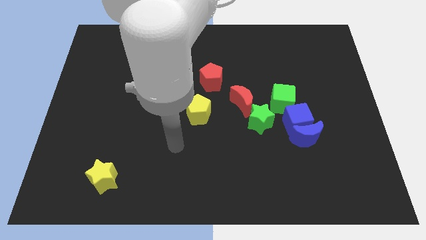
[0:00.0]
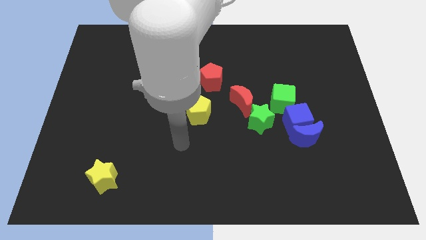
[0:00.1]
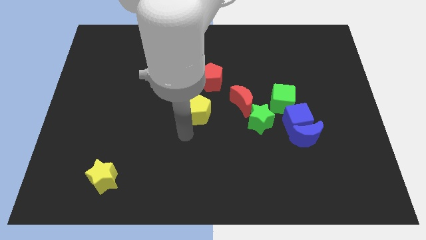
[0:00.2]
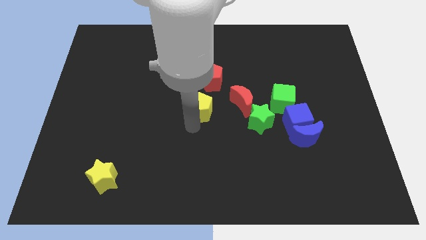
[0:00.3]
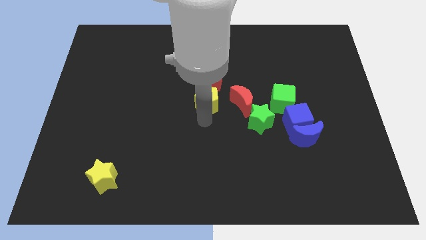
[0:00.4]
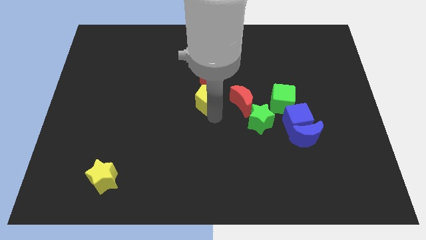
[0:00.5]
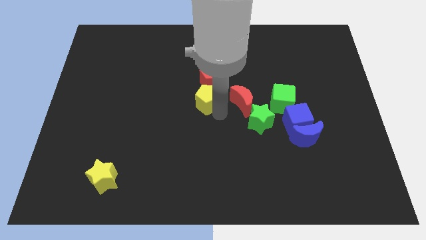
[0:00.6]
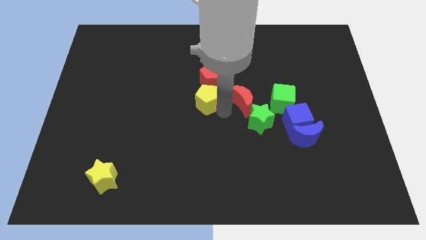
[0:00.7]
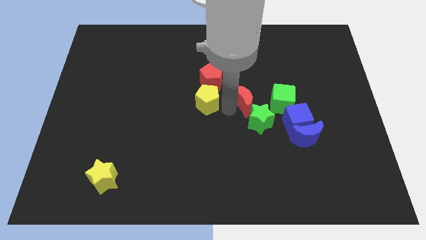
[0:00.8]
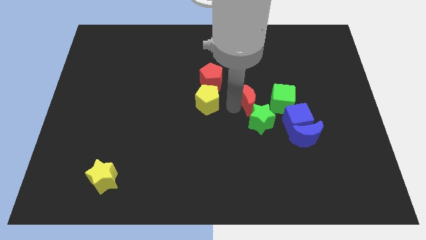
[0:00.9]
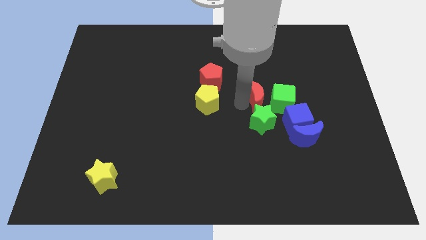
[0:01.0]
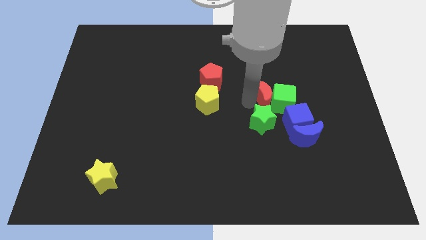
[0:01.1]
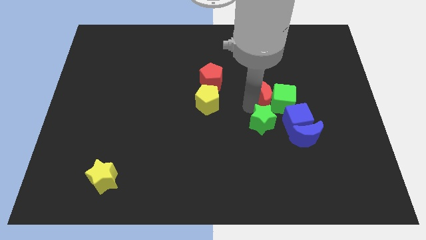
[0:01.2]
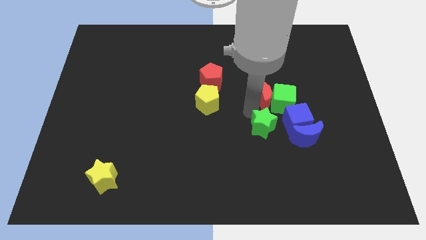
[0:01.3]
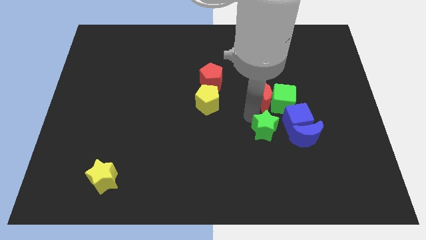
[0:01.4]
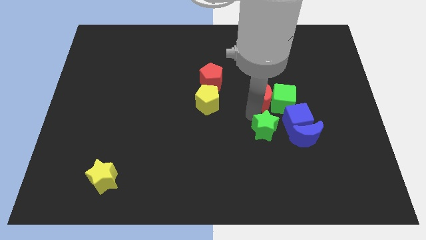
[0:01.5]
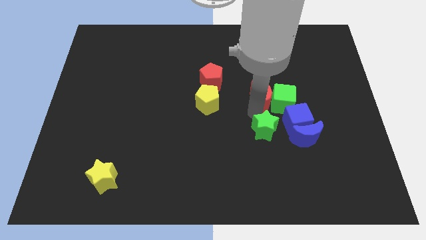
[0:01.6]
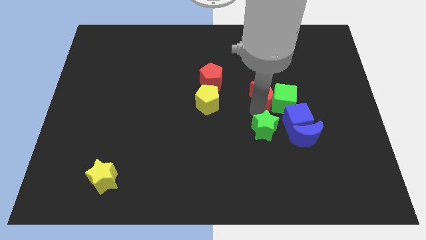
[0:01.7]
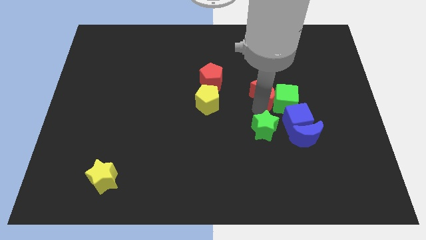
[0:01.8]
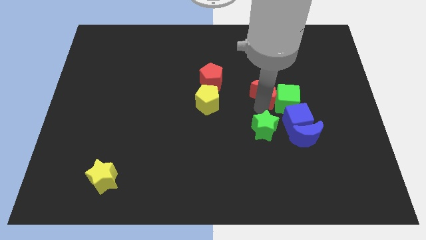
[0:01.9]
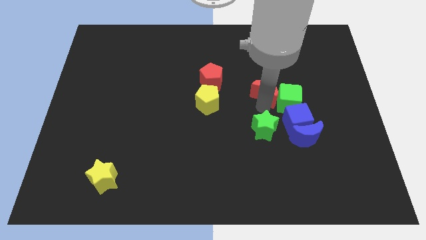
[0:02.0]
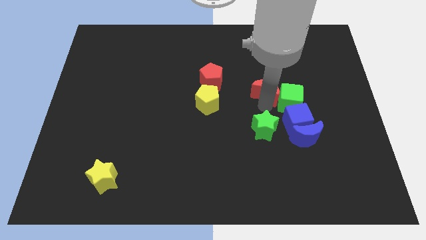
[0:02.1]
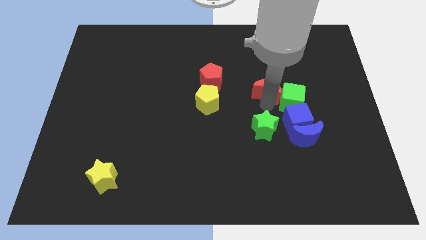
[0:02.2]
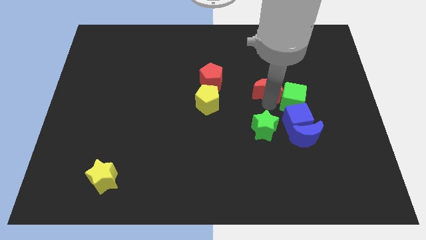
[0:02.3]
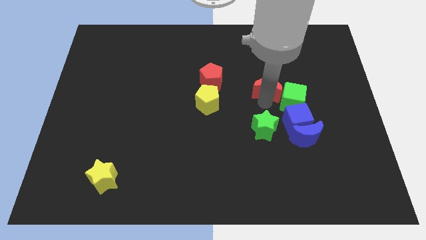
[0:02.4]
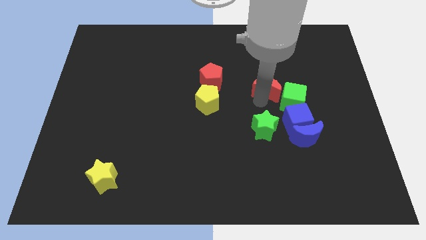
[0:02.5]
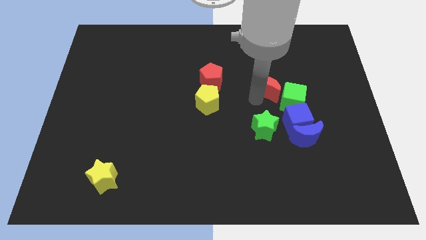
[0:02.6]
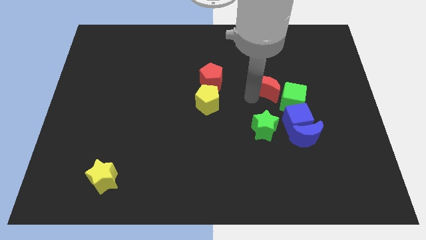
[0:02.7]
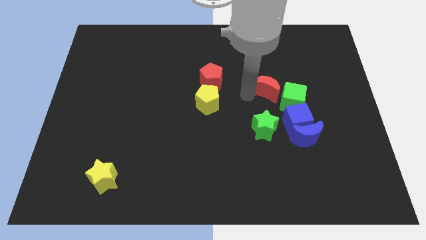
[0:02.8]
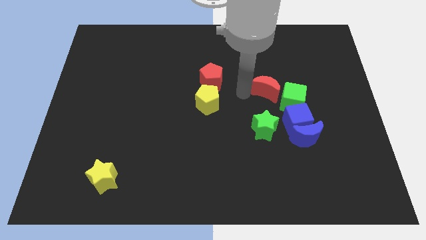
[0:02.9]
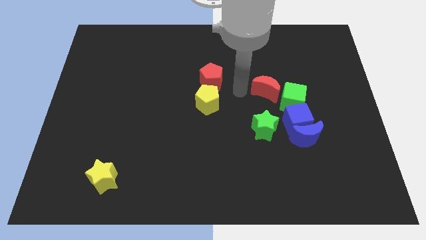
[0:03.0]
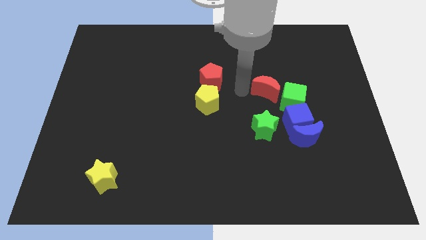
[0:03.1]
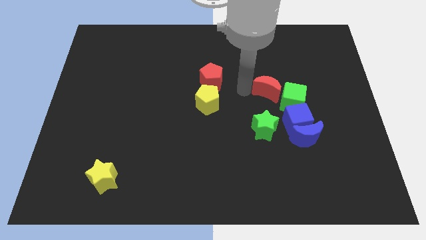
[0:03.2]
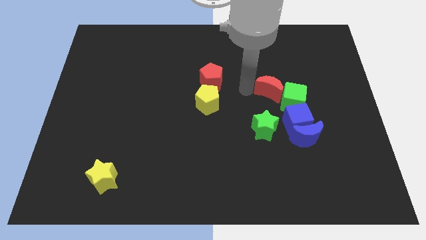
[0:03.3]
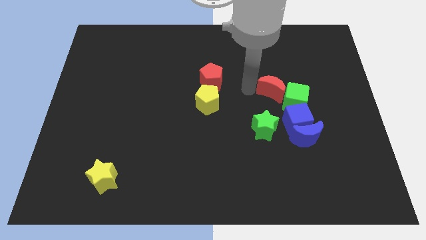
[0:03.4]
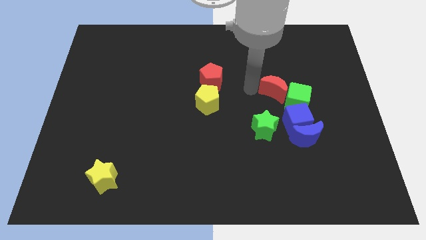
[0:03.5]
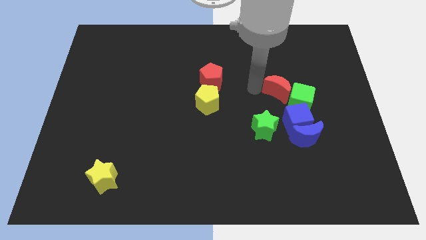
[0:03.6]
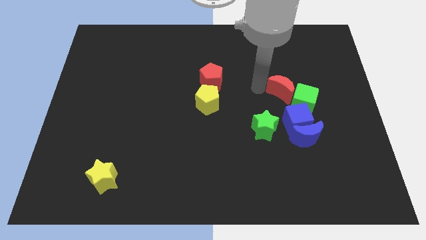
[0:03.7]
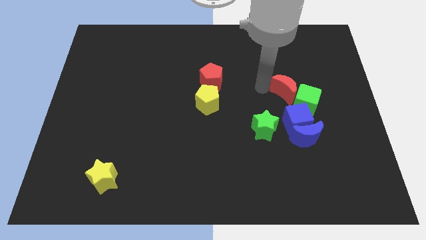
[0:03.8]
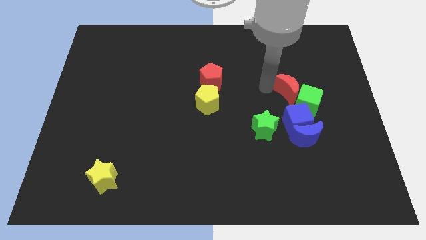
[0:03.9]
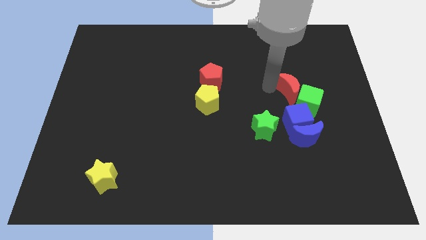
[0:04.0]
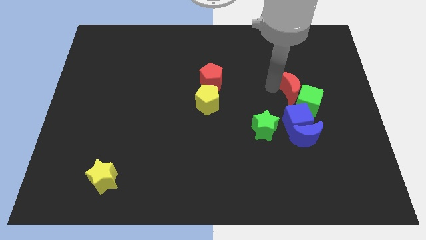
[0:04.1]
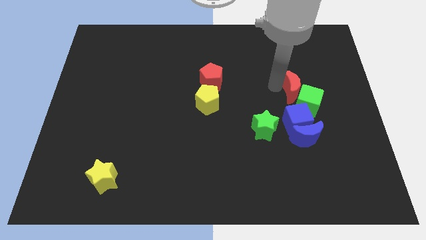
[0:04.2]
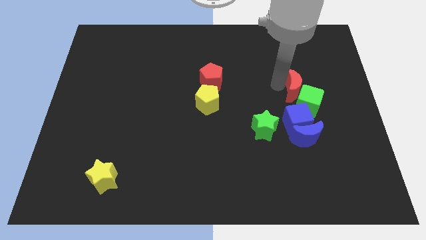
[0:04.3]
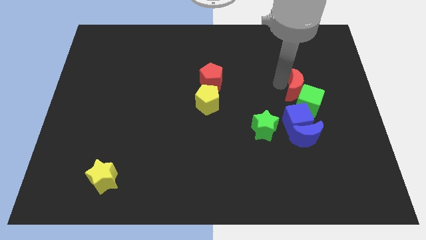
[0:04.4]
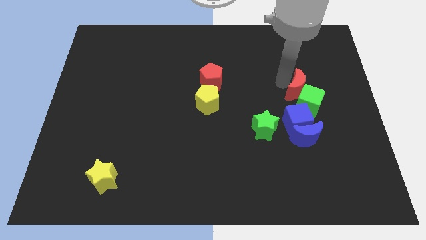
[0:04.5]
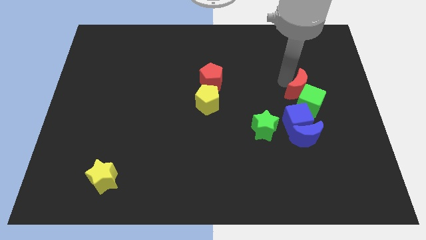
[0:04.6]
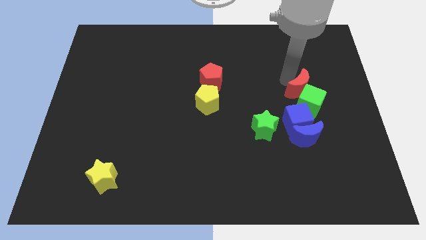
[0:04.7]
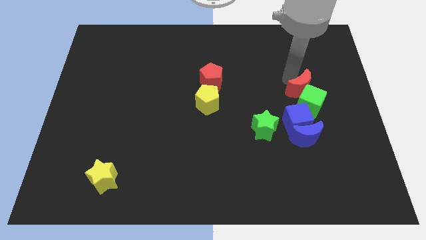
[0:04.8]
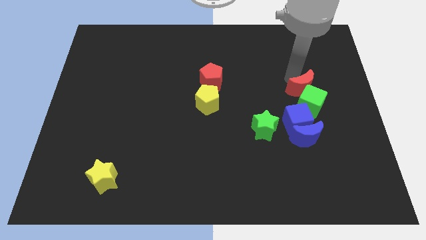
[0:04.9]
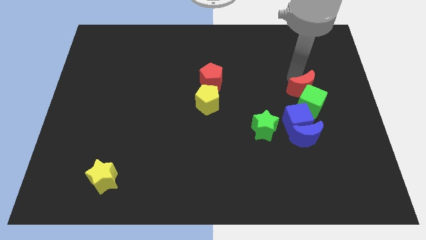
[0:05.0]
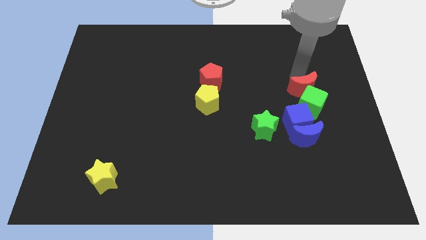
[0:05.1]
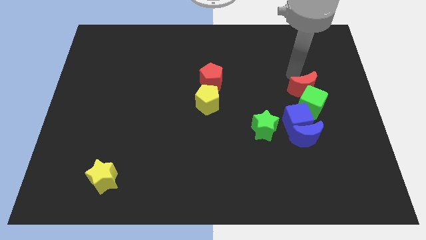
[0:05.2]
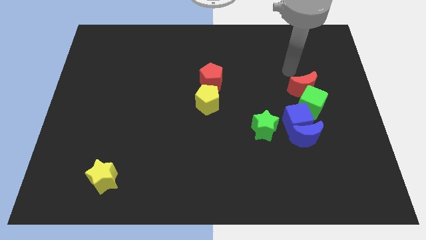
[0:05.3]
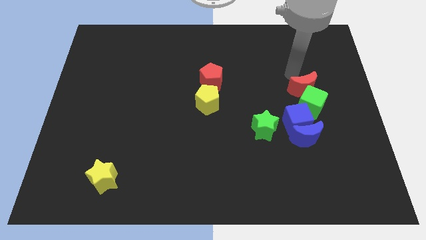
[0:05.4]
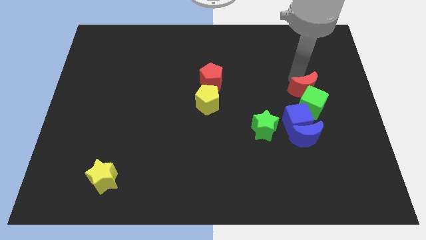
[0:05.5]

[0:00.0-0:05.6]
move the red moon diagonally up and to the right of the blue cube

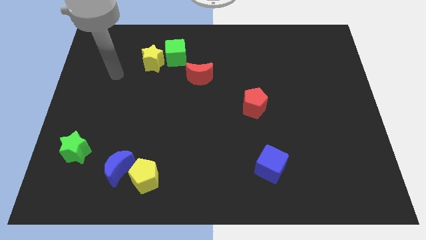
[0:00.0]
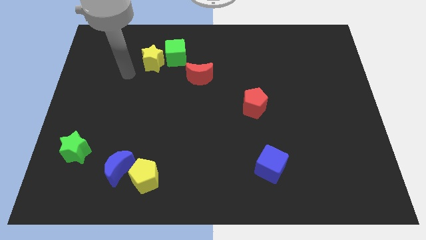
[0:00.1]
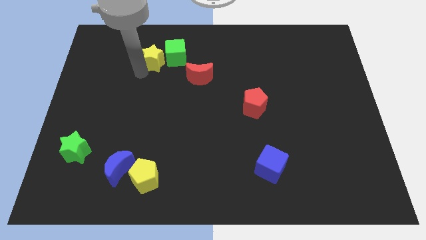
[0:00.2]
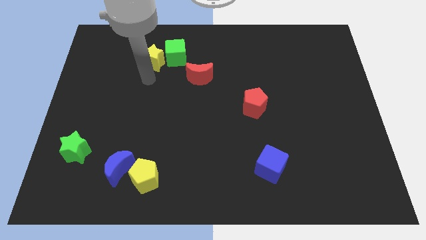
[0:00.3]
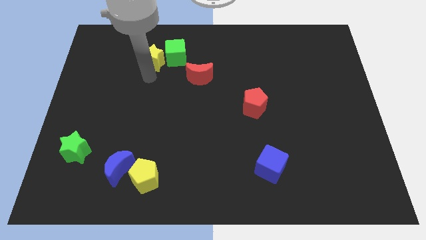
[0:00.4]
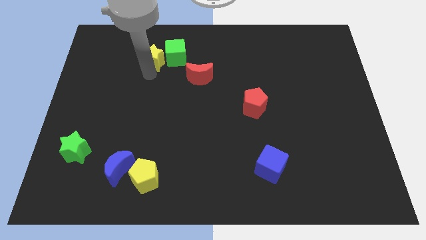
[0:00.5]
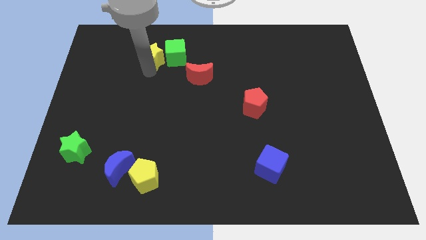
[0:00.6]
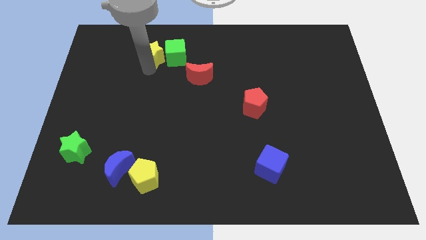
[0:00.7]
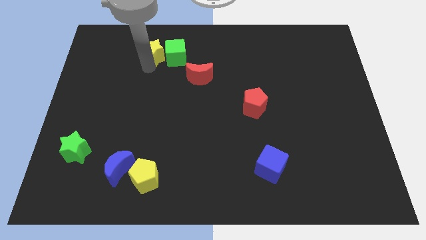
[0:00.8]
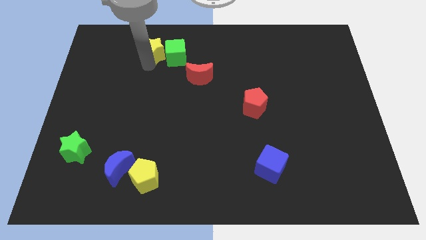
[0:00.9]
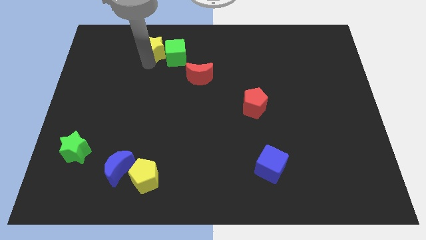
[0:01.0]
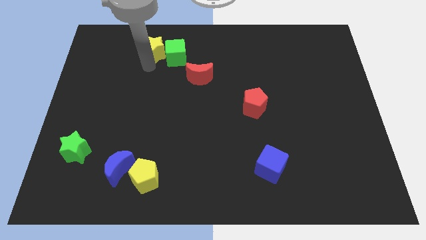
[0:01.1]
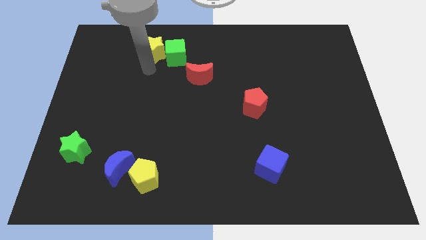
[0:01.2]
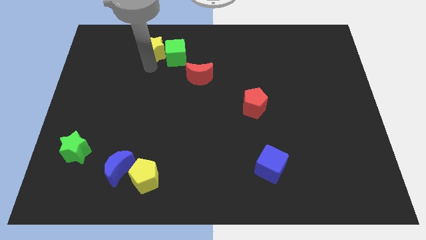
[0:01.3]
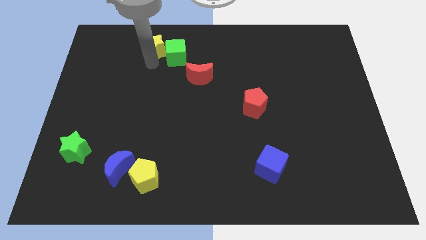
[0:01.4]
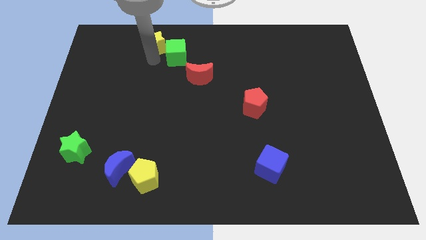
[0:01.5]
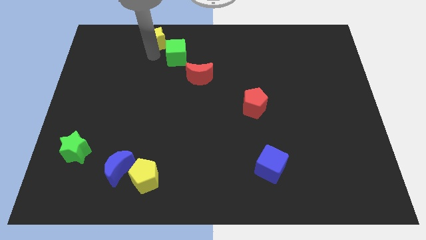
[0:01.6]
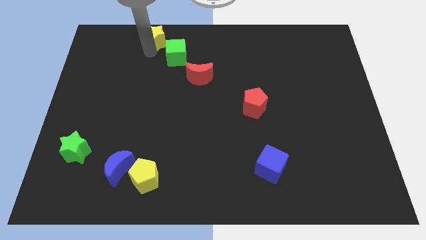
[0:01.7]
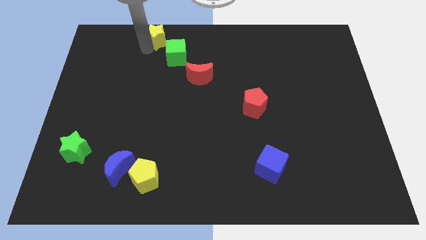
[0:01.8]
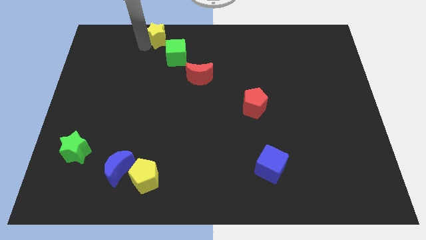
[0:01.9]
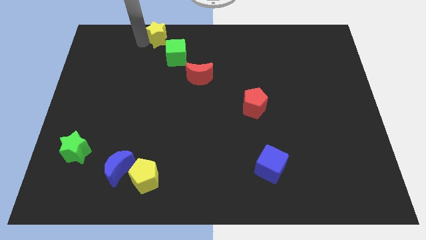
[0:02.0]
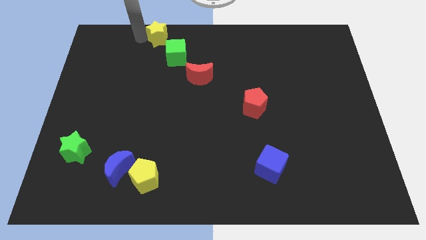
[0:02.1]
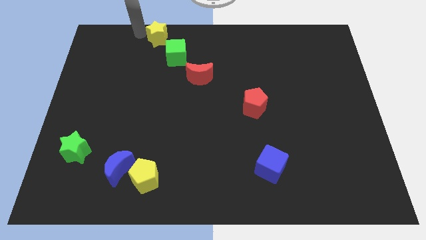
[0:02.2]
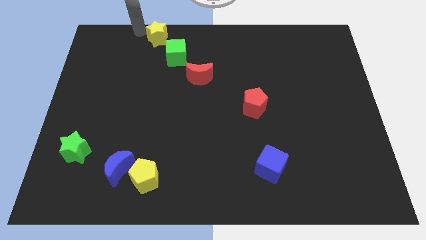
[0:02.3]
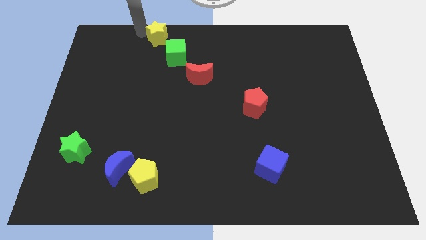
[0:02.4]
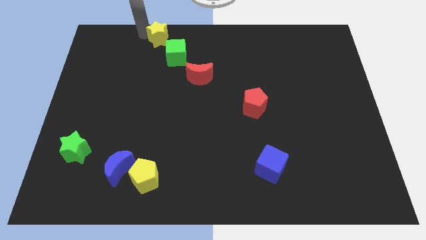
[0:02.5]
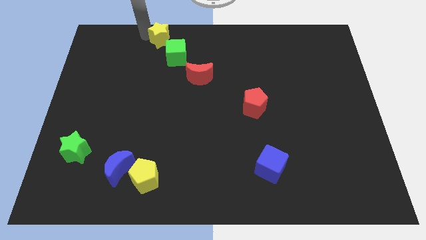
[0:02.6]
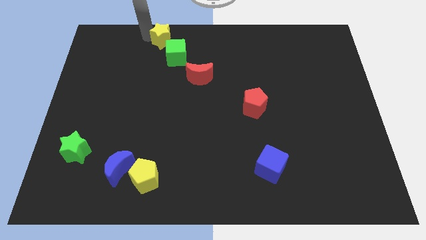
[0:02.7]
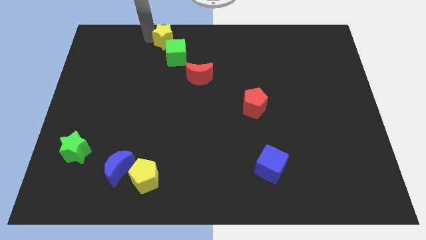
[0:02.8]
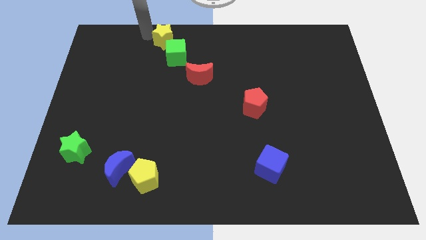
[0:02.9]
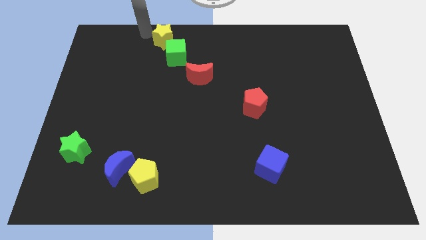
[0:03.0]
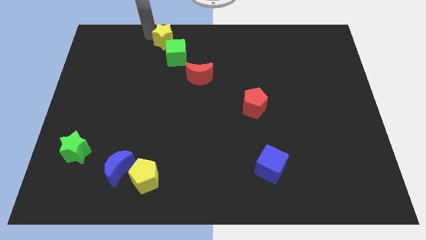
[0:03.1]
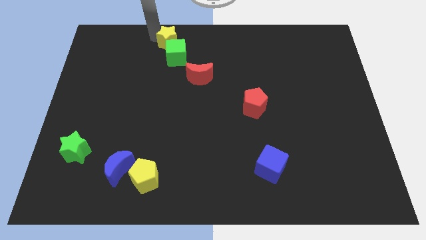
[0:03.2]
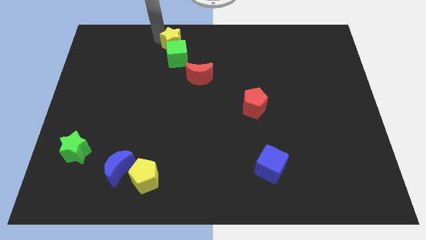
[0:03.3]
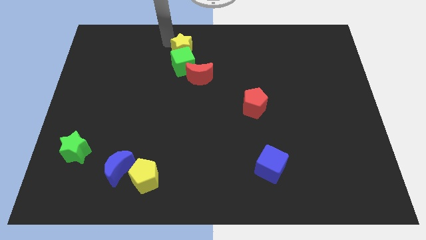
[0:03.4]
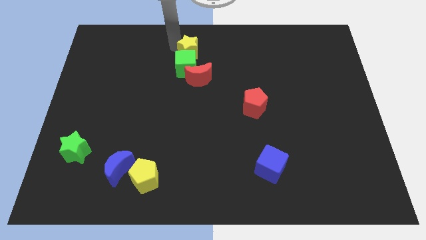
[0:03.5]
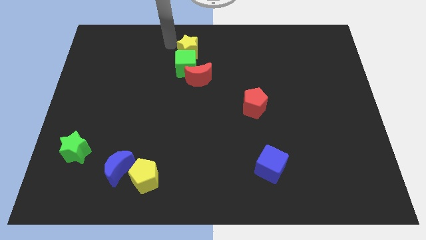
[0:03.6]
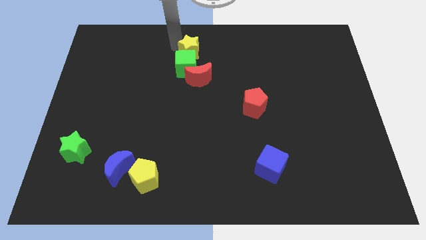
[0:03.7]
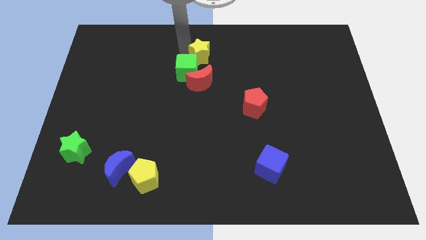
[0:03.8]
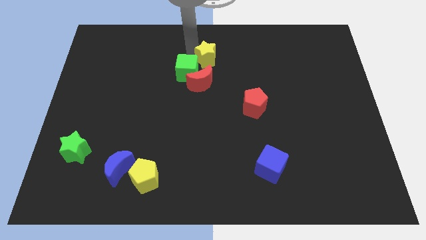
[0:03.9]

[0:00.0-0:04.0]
put the yellow star to the right of the green cube
